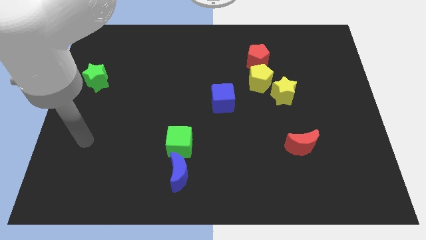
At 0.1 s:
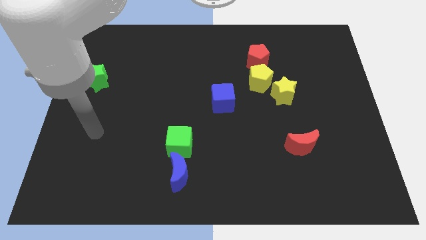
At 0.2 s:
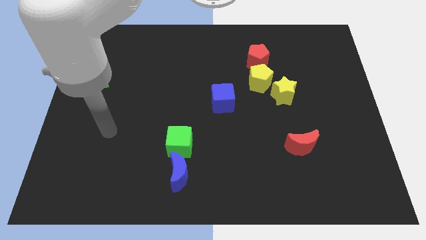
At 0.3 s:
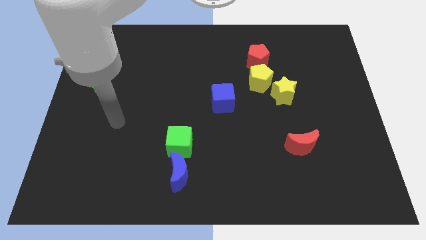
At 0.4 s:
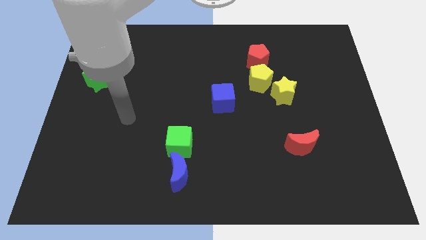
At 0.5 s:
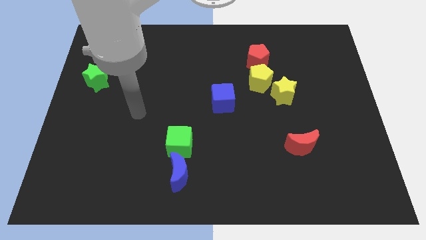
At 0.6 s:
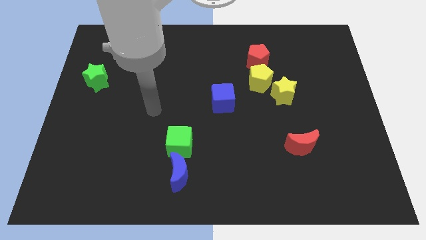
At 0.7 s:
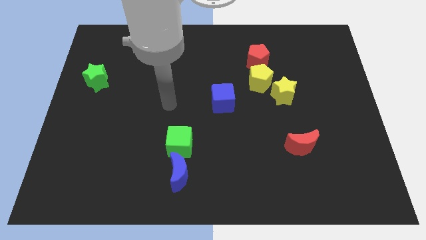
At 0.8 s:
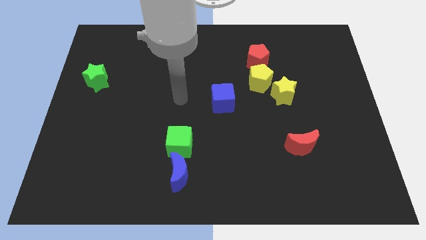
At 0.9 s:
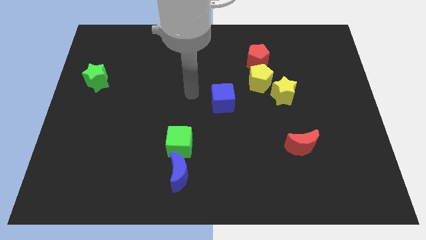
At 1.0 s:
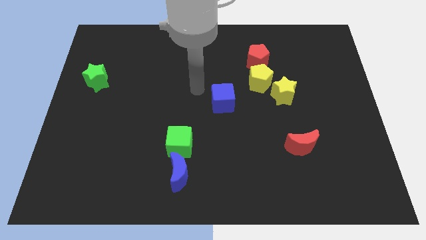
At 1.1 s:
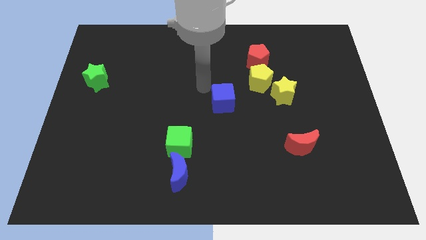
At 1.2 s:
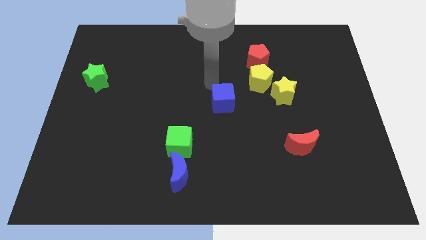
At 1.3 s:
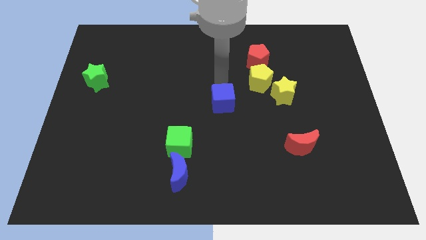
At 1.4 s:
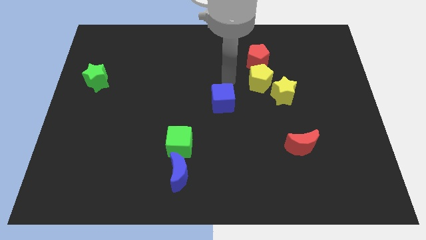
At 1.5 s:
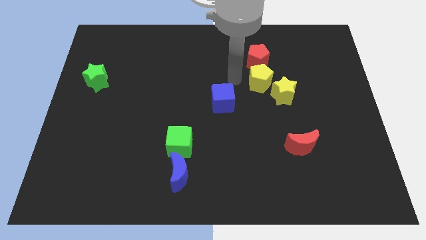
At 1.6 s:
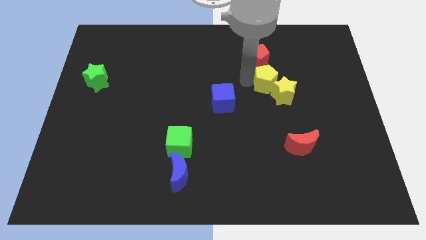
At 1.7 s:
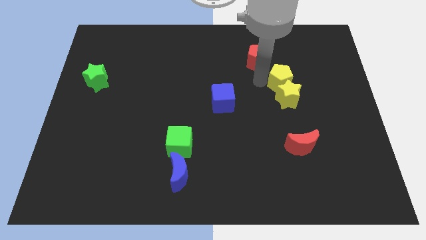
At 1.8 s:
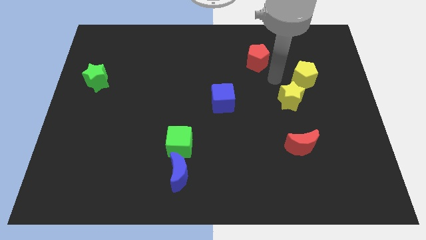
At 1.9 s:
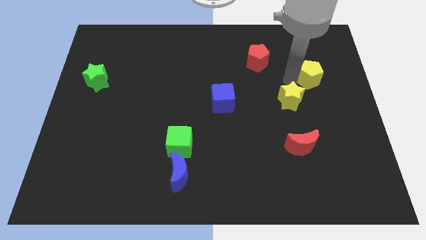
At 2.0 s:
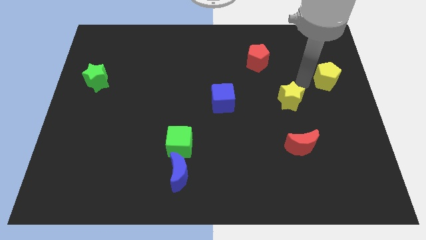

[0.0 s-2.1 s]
move the yellow star away from the yellow pentagon

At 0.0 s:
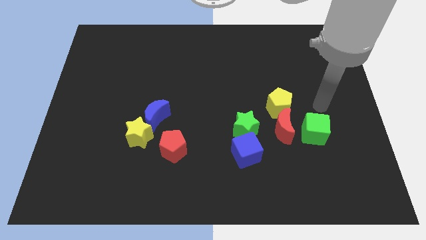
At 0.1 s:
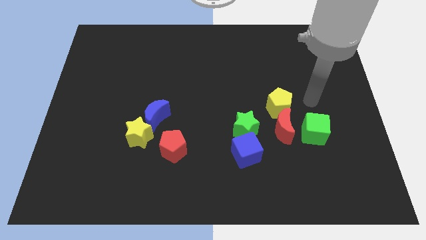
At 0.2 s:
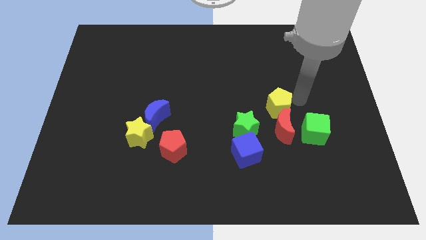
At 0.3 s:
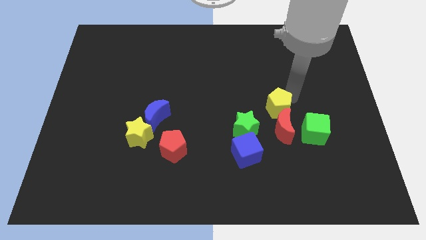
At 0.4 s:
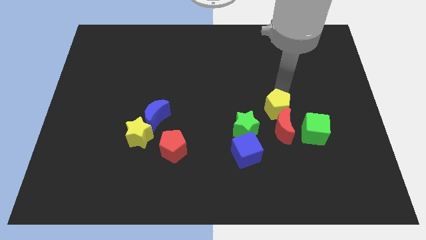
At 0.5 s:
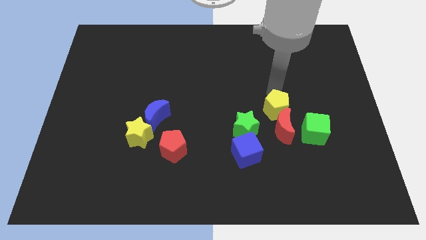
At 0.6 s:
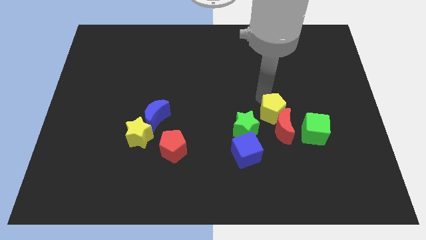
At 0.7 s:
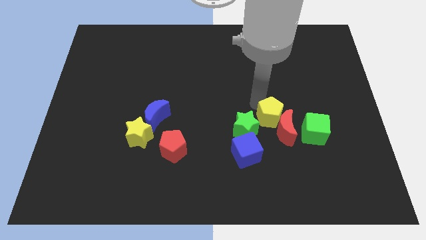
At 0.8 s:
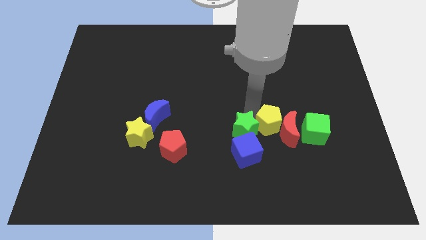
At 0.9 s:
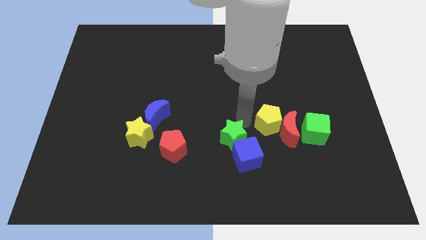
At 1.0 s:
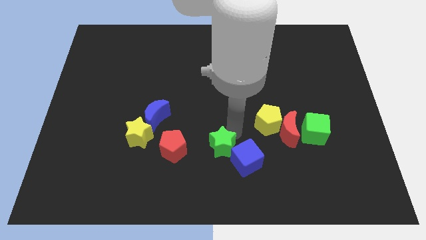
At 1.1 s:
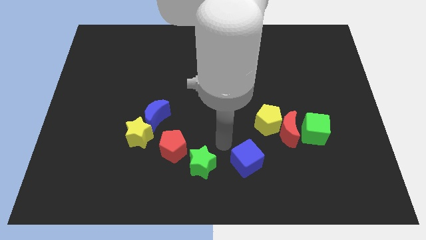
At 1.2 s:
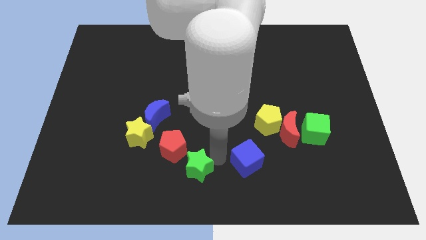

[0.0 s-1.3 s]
move the blue cube away from the green star

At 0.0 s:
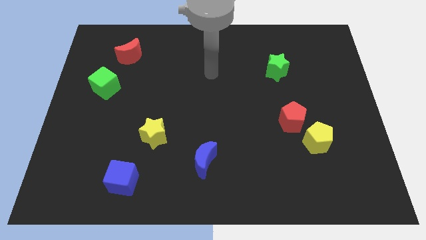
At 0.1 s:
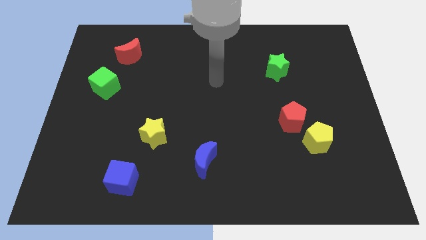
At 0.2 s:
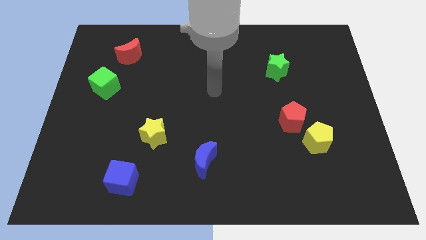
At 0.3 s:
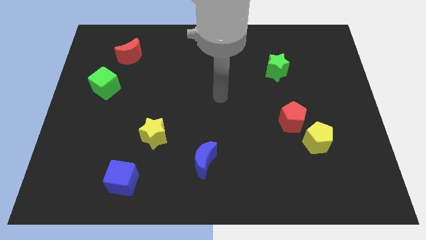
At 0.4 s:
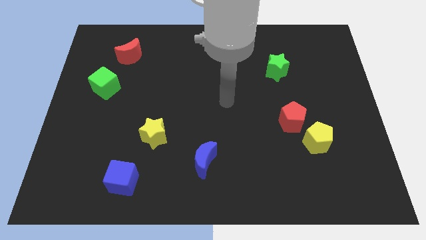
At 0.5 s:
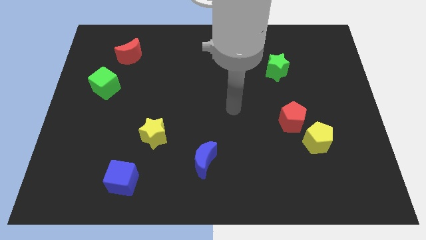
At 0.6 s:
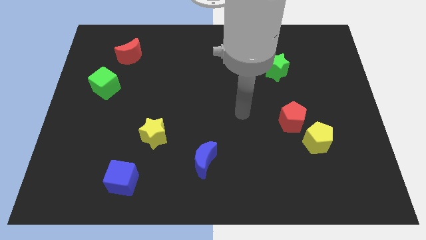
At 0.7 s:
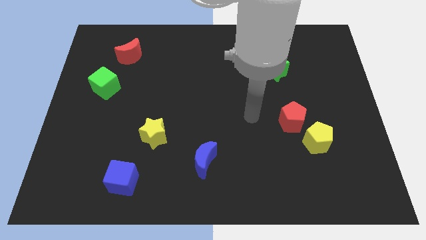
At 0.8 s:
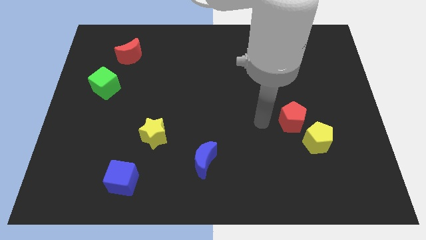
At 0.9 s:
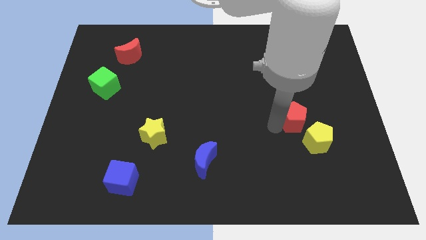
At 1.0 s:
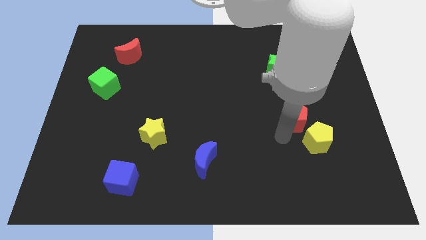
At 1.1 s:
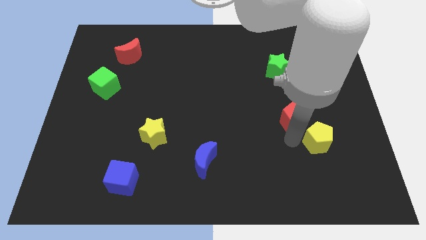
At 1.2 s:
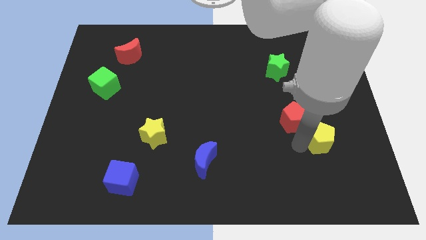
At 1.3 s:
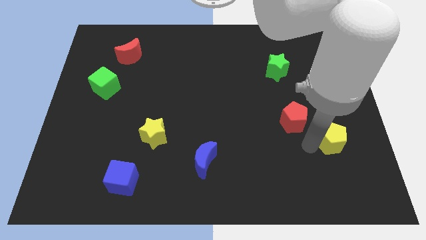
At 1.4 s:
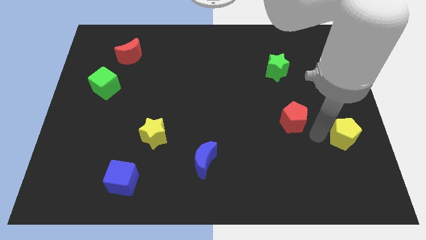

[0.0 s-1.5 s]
move the red pentagon away from the yellow pentagon

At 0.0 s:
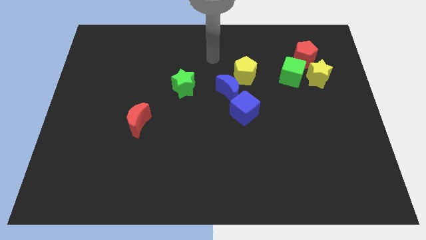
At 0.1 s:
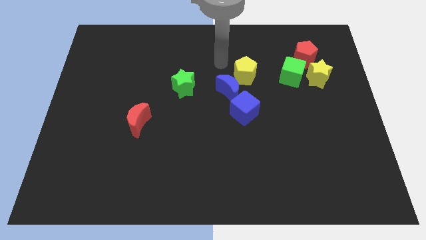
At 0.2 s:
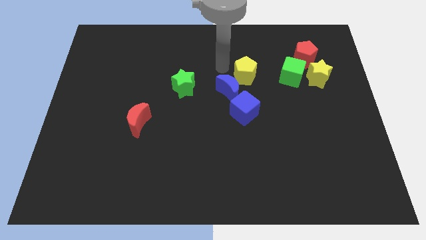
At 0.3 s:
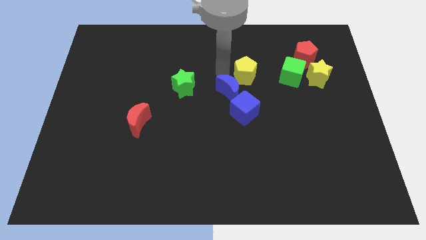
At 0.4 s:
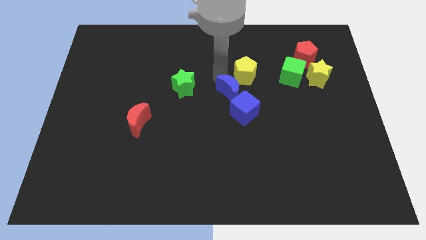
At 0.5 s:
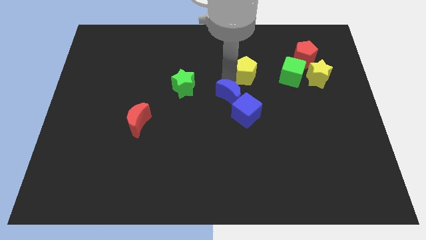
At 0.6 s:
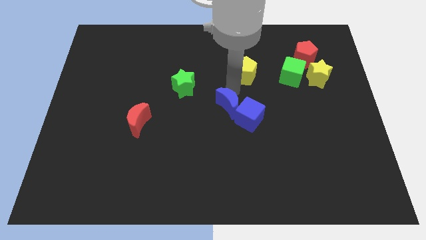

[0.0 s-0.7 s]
separate the yellow pentagon from the blue moon

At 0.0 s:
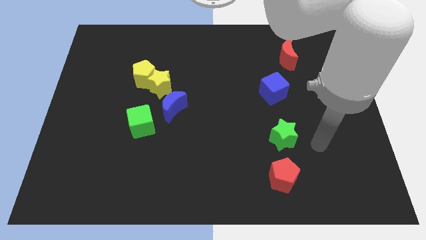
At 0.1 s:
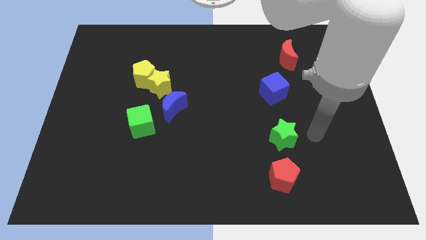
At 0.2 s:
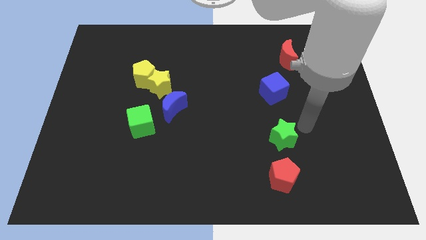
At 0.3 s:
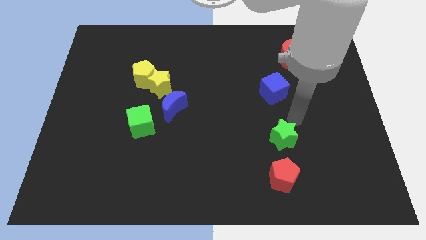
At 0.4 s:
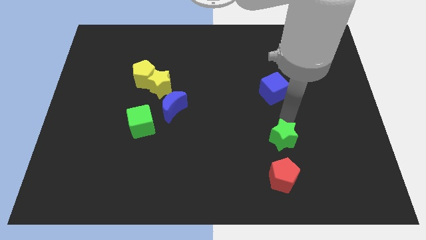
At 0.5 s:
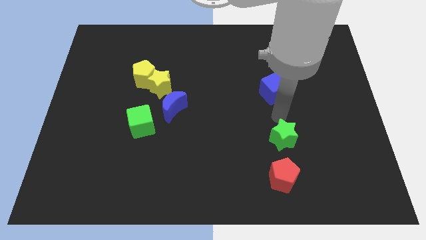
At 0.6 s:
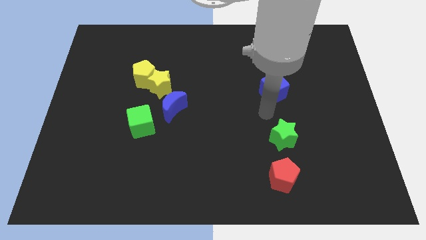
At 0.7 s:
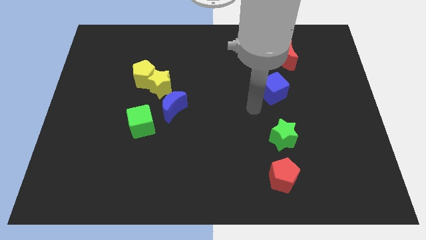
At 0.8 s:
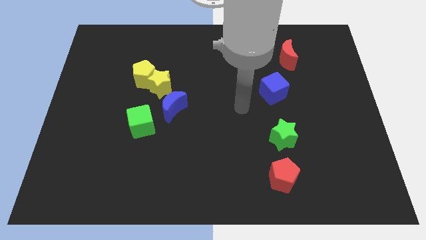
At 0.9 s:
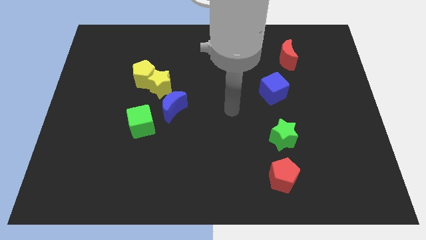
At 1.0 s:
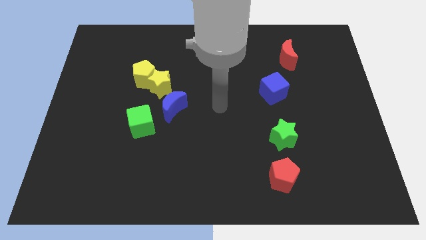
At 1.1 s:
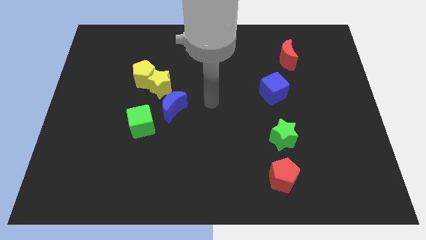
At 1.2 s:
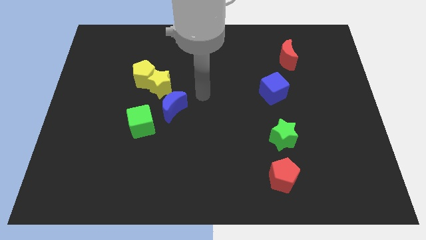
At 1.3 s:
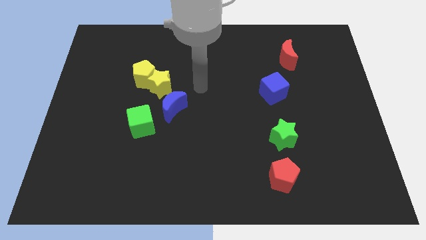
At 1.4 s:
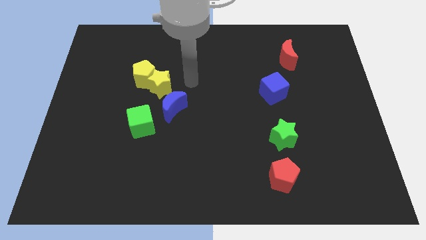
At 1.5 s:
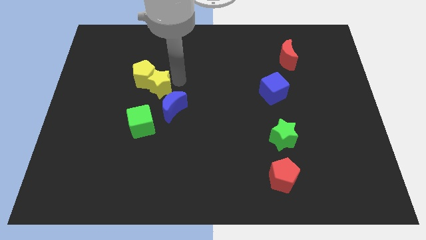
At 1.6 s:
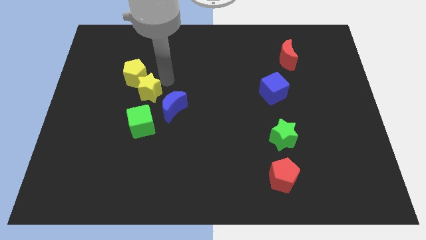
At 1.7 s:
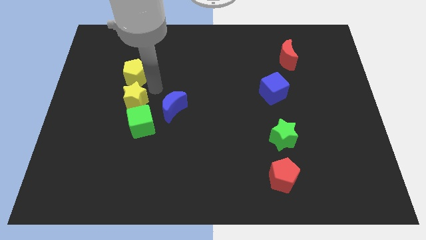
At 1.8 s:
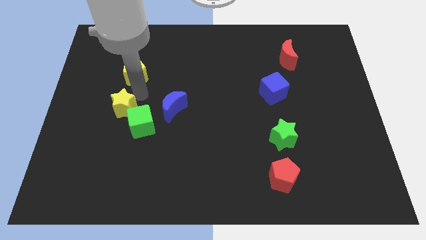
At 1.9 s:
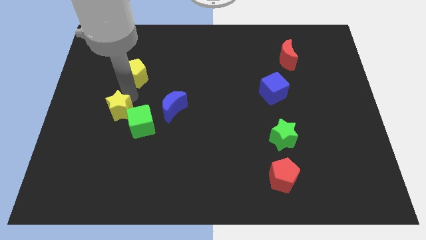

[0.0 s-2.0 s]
pull the yellow pentagon apart from the yellow star

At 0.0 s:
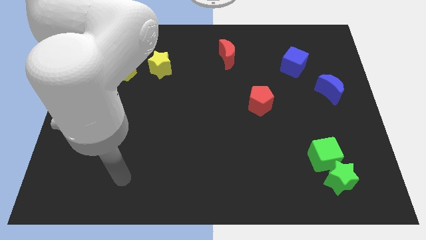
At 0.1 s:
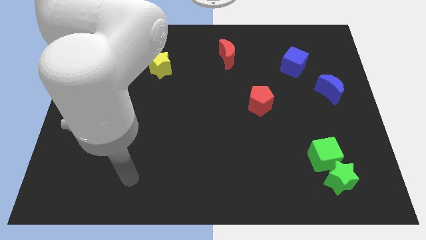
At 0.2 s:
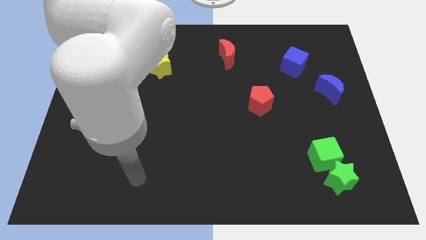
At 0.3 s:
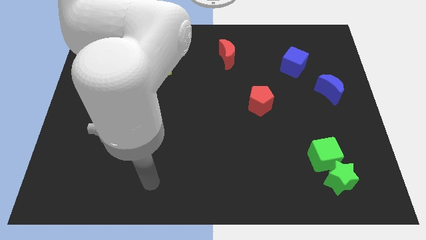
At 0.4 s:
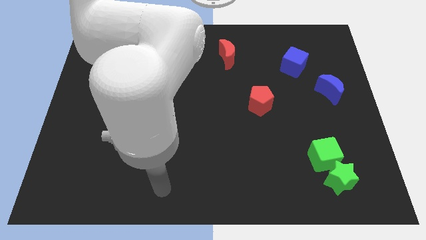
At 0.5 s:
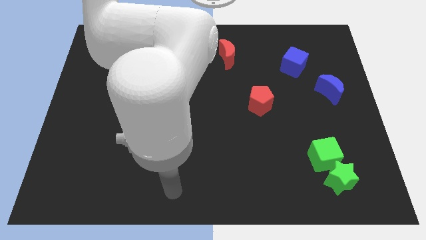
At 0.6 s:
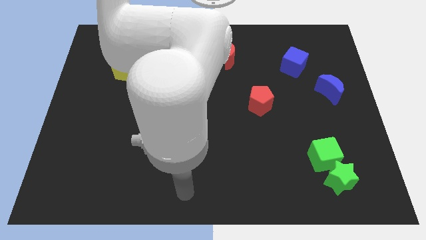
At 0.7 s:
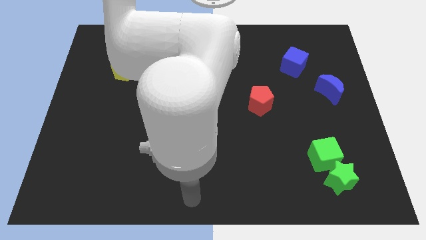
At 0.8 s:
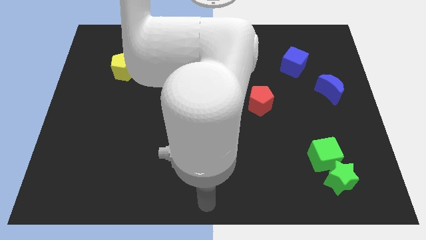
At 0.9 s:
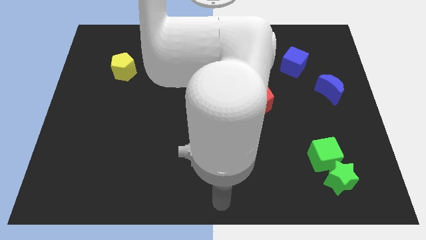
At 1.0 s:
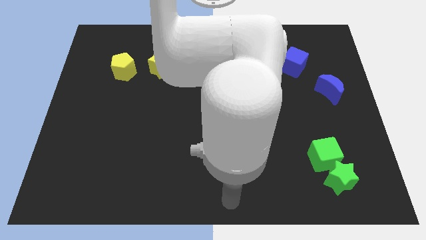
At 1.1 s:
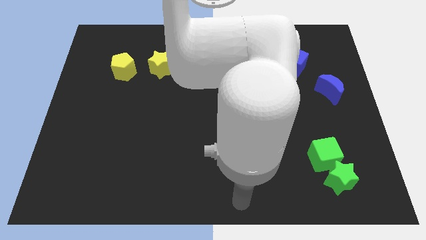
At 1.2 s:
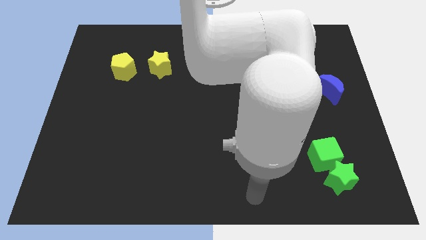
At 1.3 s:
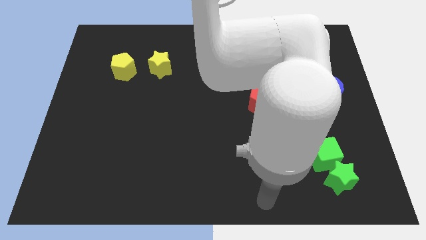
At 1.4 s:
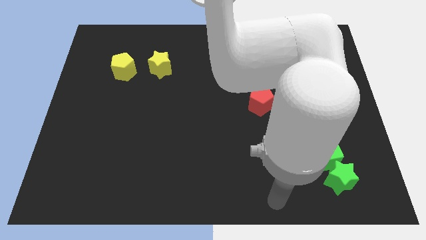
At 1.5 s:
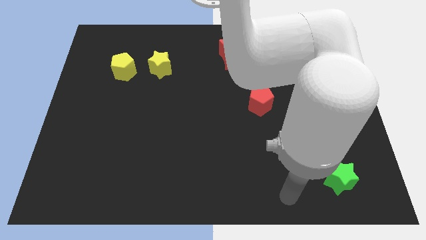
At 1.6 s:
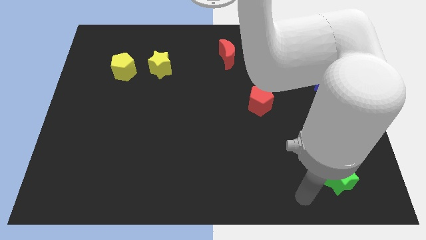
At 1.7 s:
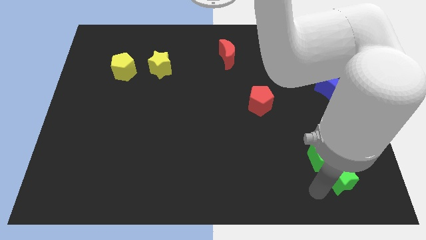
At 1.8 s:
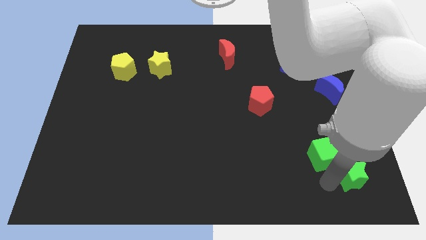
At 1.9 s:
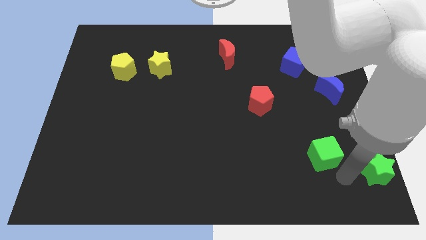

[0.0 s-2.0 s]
move the green cube away from the green star
